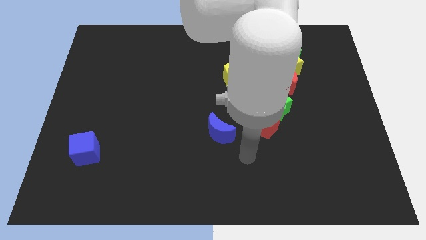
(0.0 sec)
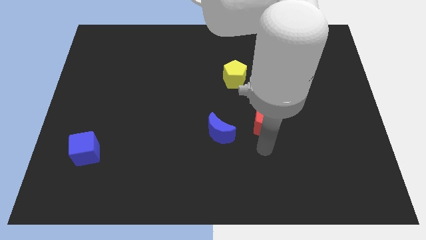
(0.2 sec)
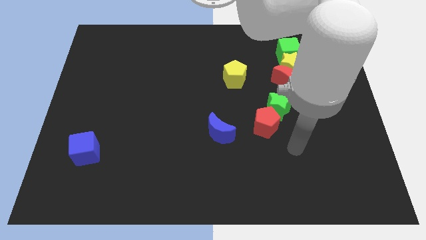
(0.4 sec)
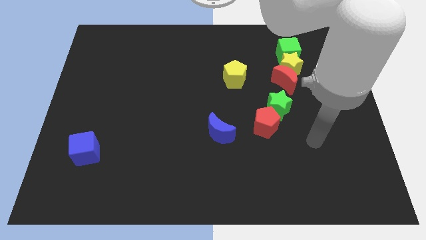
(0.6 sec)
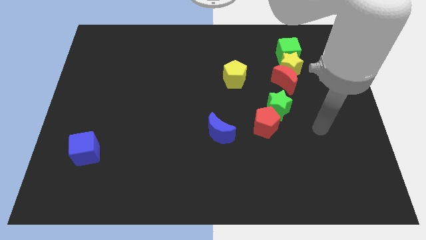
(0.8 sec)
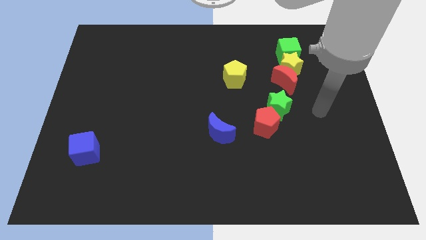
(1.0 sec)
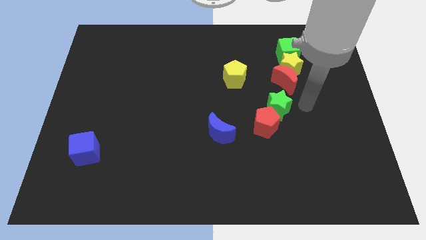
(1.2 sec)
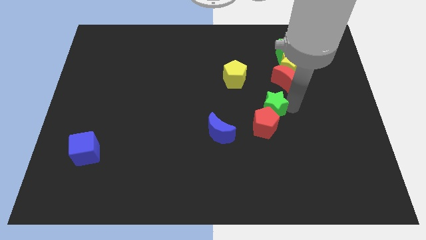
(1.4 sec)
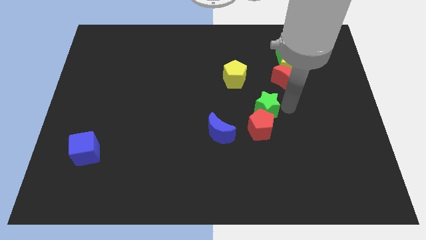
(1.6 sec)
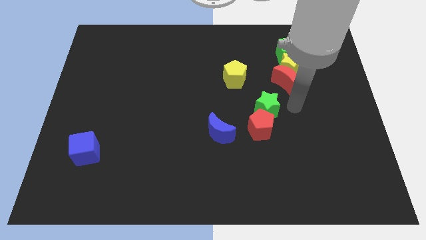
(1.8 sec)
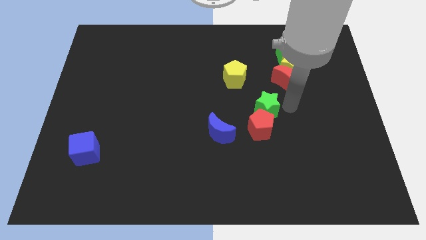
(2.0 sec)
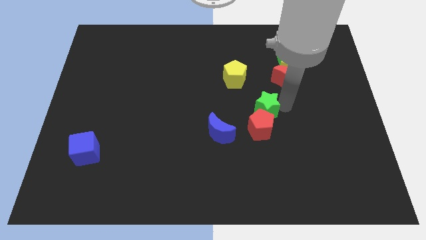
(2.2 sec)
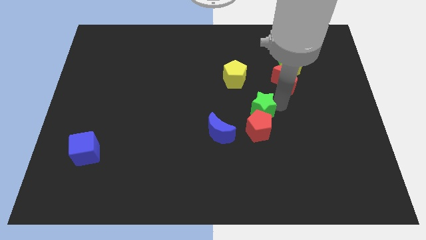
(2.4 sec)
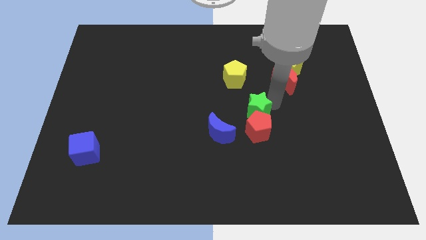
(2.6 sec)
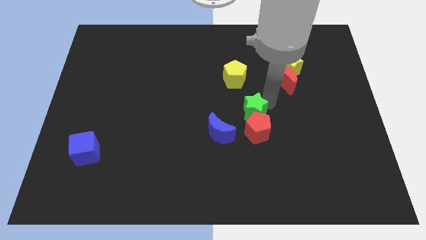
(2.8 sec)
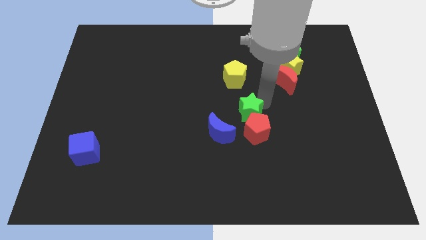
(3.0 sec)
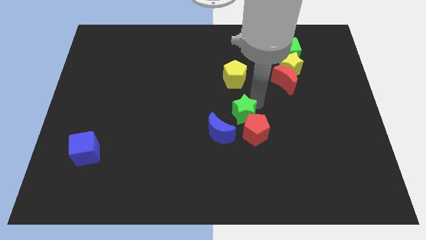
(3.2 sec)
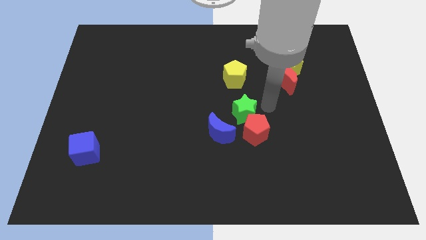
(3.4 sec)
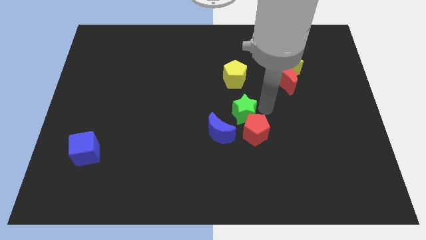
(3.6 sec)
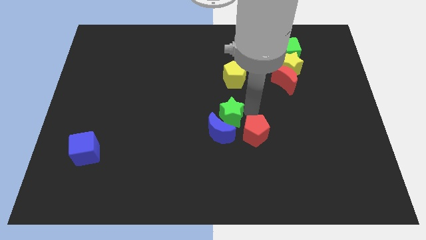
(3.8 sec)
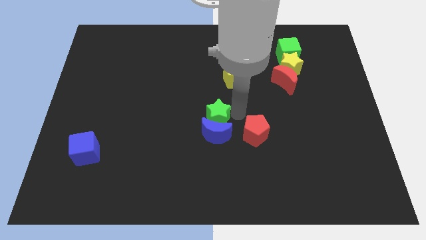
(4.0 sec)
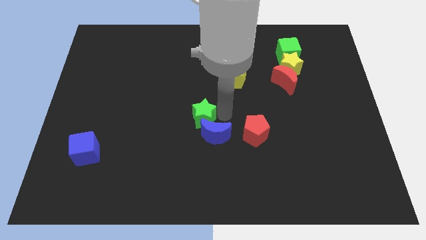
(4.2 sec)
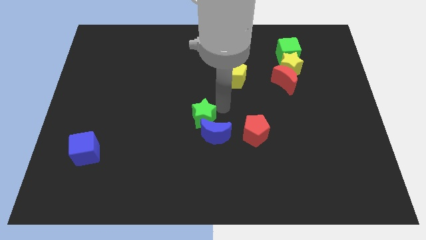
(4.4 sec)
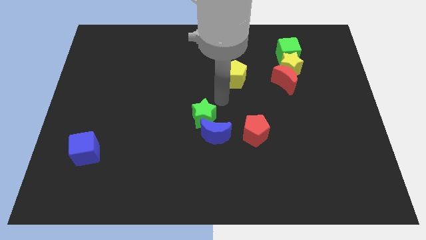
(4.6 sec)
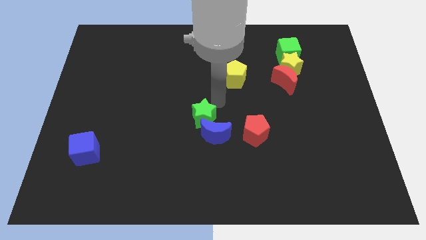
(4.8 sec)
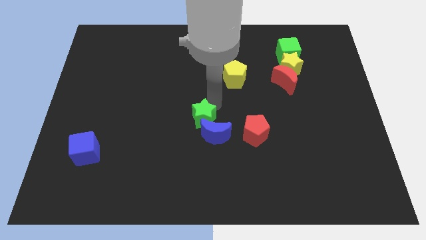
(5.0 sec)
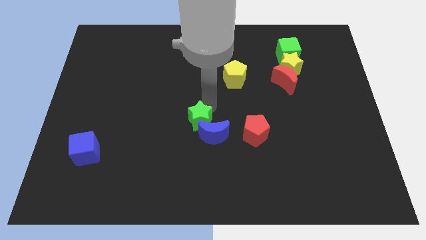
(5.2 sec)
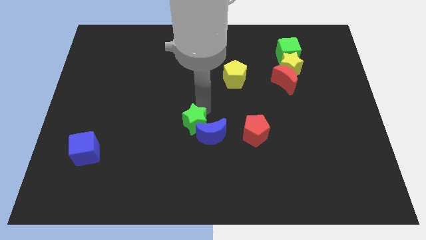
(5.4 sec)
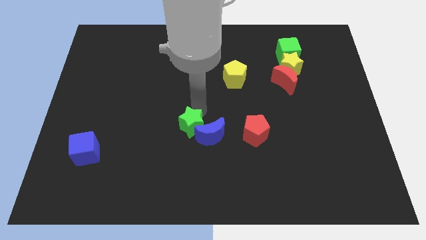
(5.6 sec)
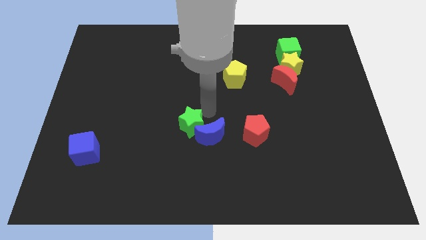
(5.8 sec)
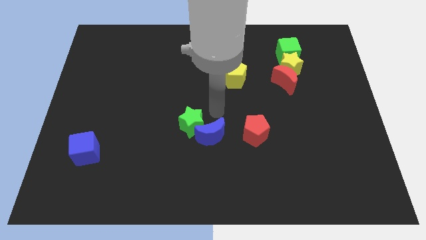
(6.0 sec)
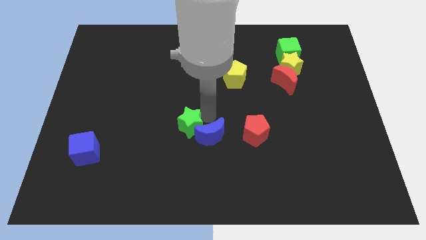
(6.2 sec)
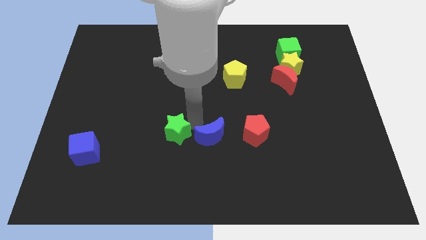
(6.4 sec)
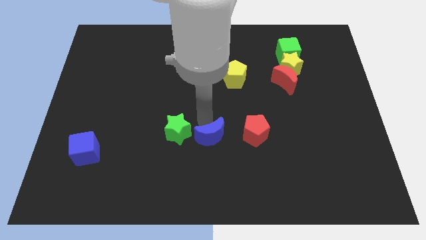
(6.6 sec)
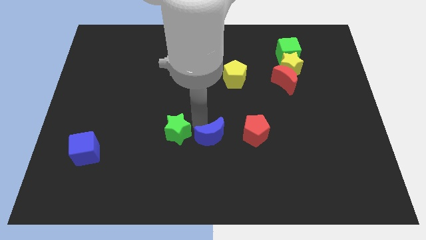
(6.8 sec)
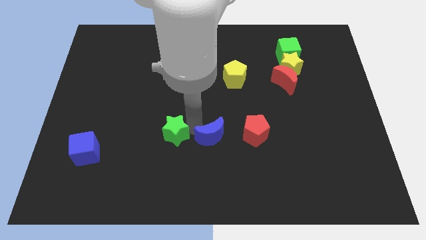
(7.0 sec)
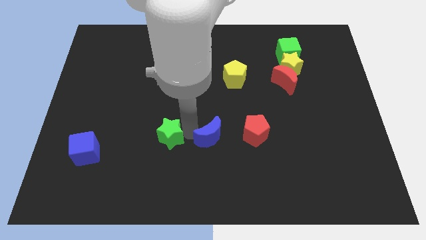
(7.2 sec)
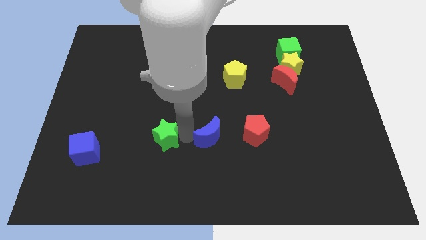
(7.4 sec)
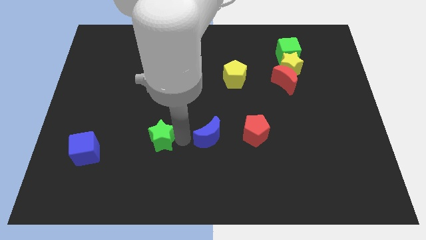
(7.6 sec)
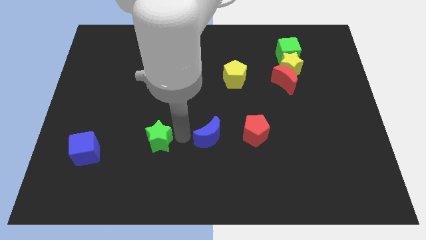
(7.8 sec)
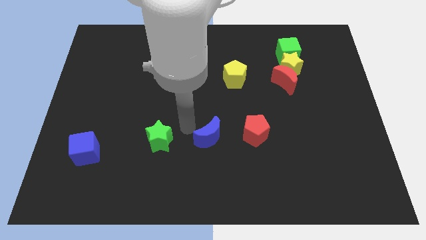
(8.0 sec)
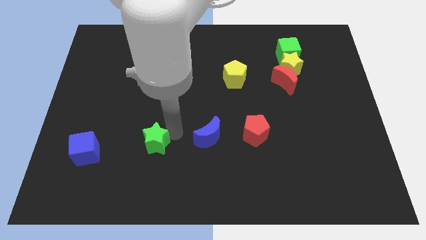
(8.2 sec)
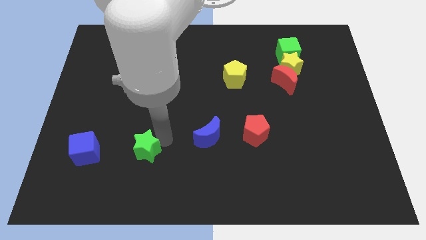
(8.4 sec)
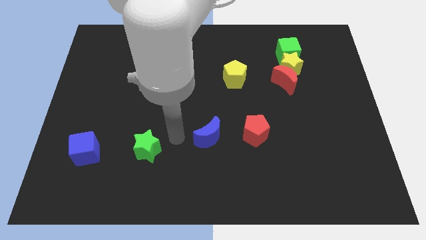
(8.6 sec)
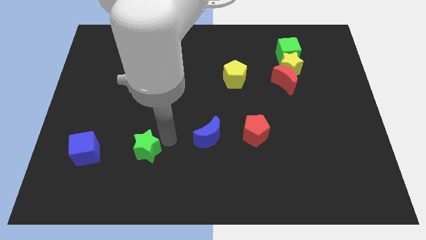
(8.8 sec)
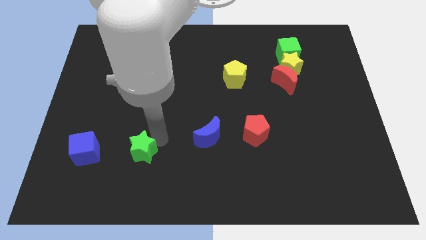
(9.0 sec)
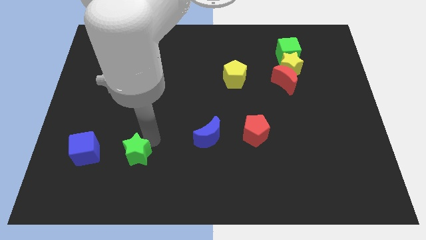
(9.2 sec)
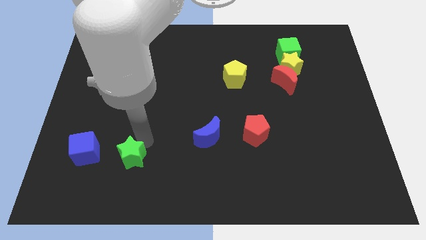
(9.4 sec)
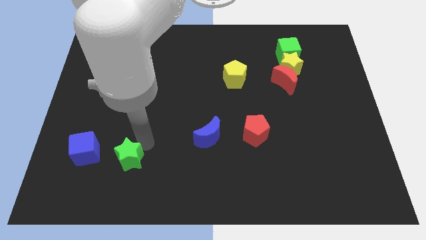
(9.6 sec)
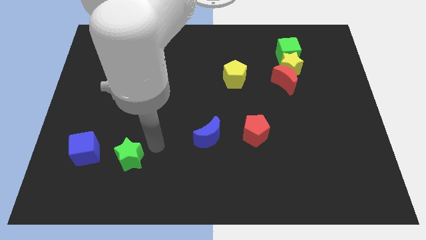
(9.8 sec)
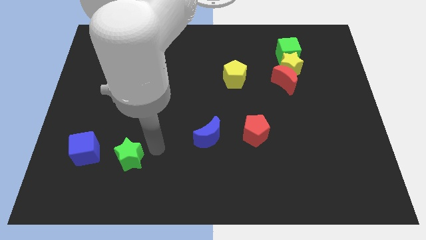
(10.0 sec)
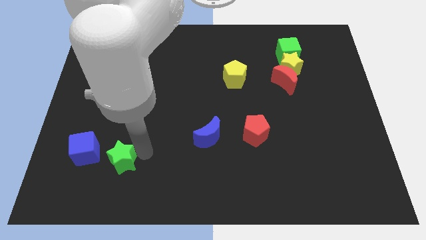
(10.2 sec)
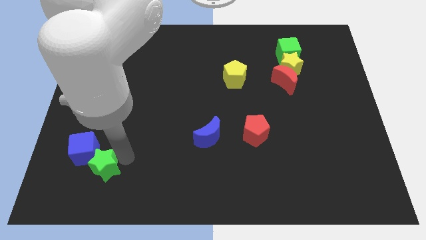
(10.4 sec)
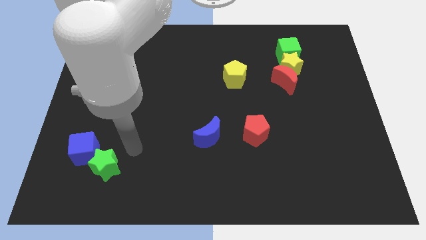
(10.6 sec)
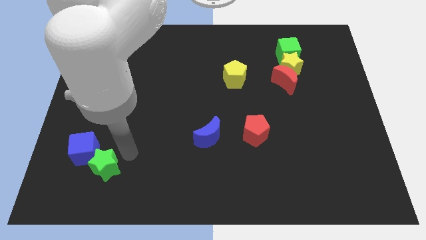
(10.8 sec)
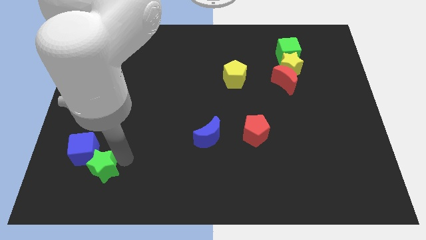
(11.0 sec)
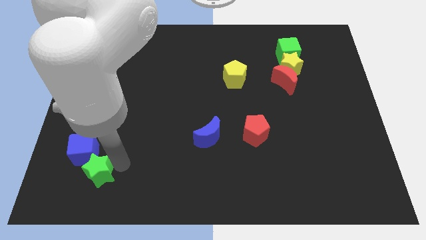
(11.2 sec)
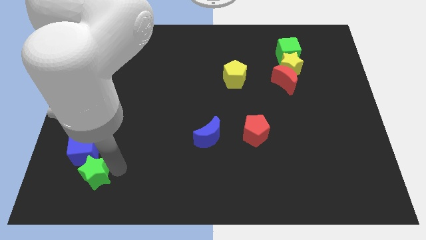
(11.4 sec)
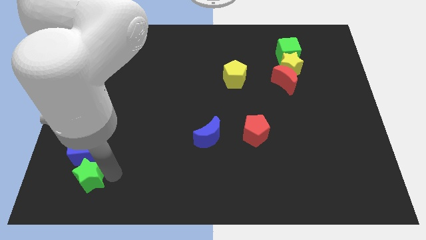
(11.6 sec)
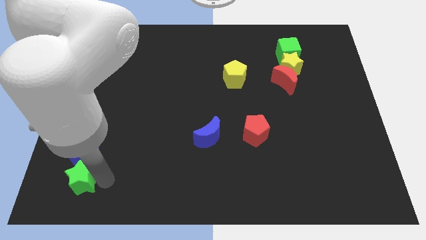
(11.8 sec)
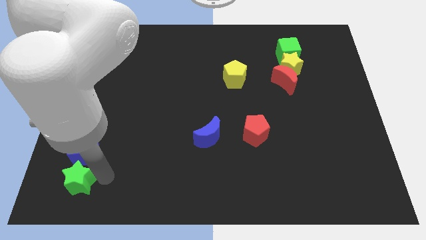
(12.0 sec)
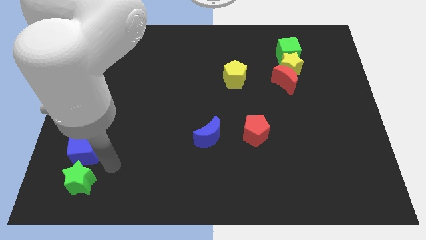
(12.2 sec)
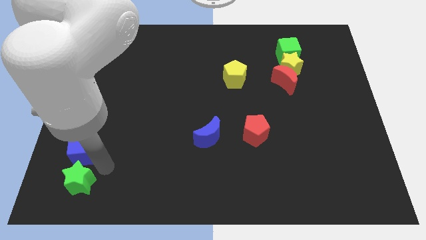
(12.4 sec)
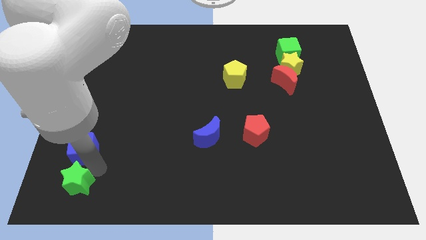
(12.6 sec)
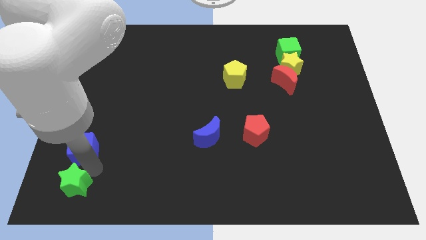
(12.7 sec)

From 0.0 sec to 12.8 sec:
push the green star to the bottom left corner

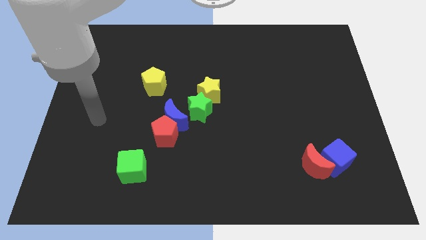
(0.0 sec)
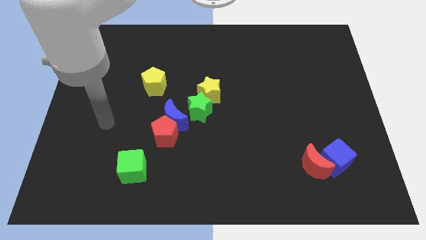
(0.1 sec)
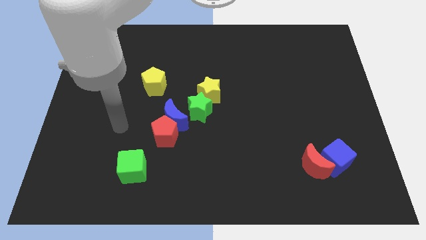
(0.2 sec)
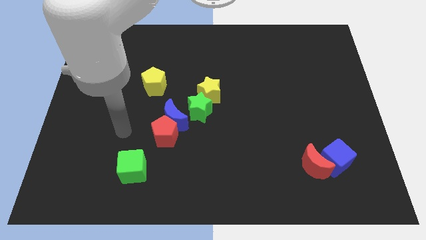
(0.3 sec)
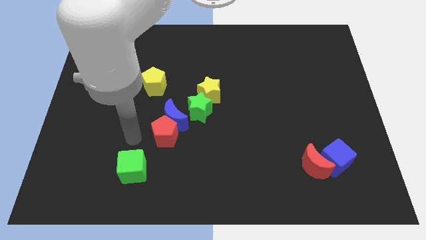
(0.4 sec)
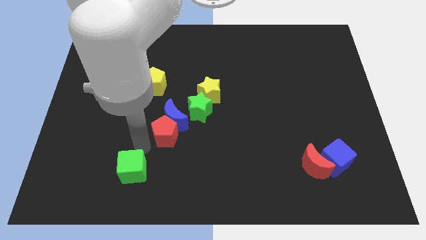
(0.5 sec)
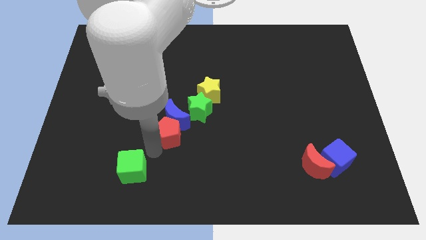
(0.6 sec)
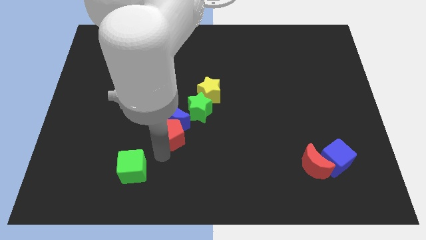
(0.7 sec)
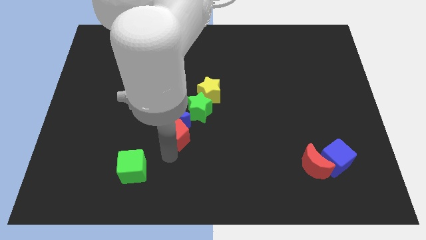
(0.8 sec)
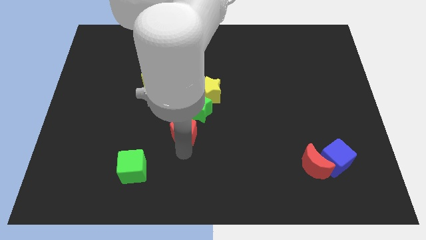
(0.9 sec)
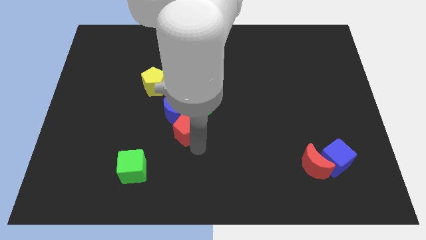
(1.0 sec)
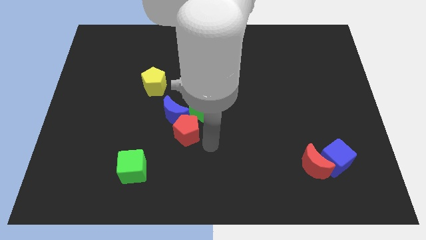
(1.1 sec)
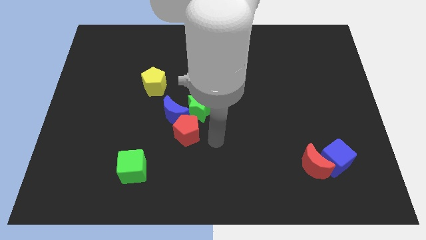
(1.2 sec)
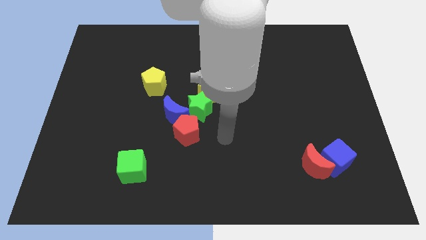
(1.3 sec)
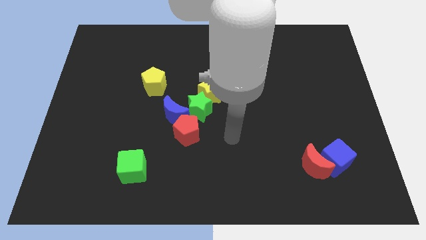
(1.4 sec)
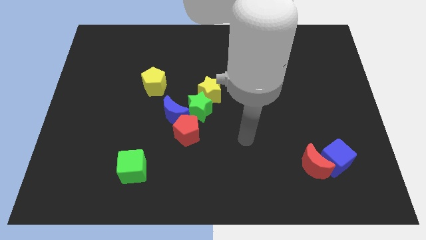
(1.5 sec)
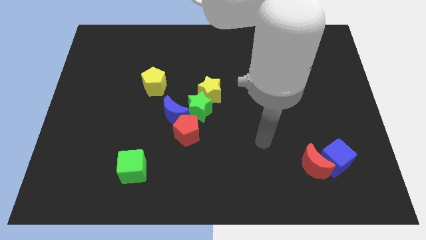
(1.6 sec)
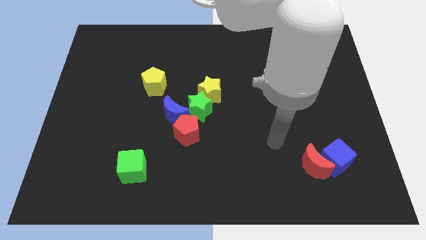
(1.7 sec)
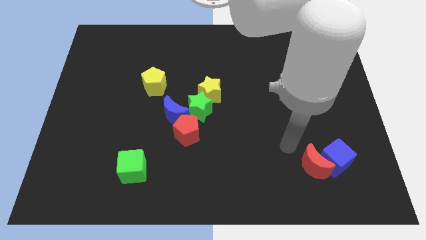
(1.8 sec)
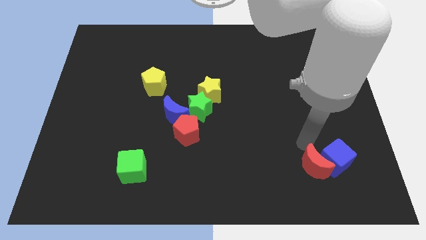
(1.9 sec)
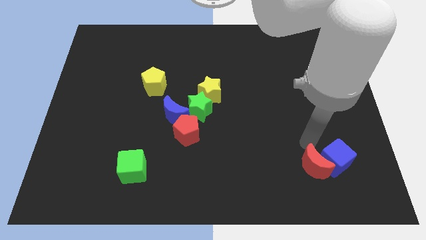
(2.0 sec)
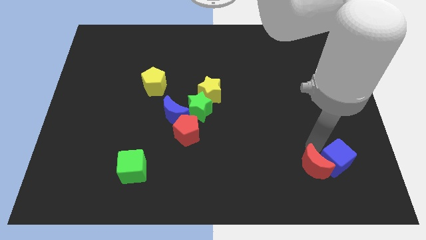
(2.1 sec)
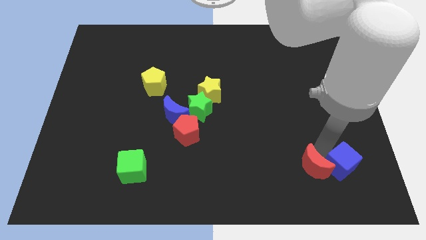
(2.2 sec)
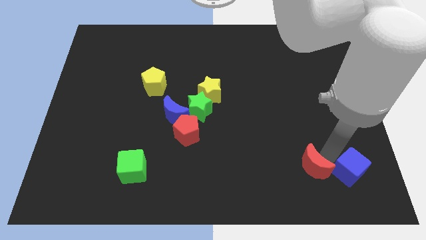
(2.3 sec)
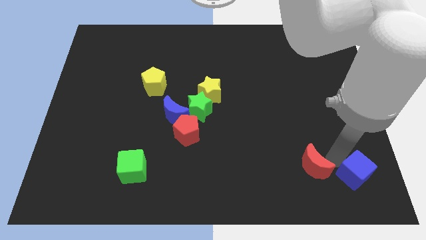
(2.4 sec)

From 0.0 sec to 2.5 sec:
put the blue cube to the bottom right of the board
